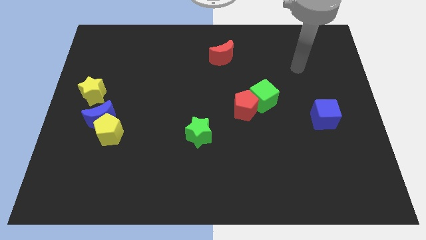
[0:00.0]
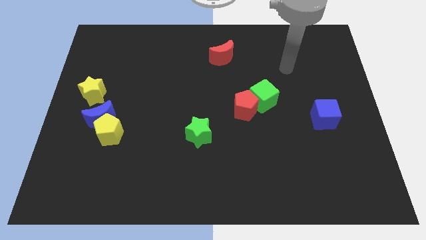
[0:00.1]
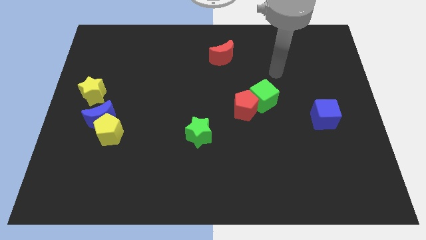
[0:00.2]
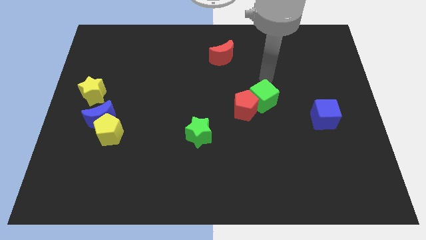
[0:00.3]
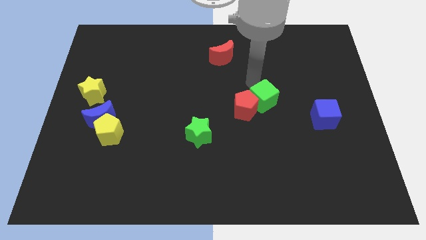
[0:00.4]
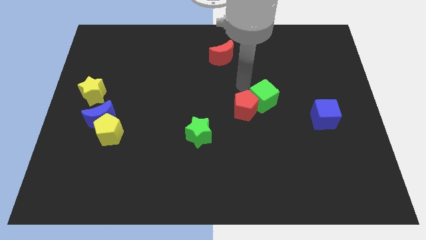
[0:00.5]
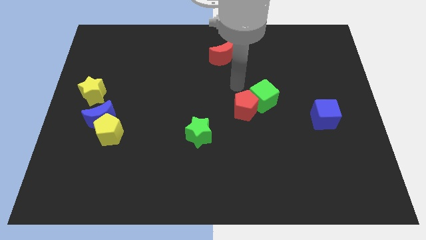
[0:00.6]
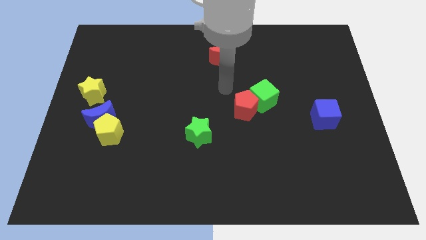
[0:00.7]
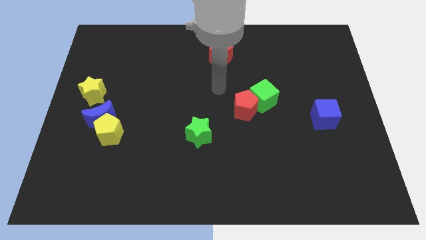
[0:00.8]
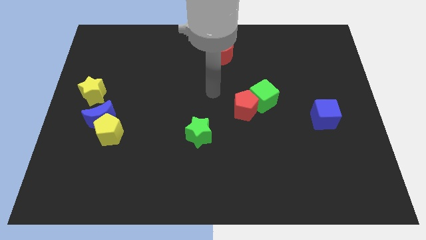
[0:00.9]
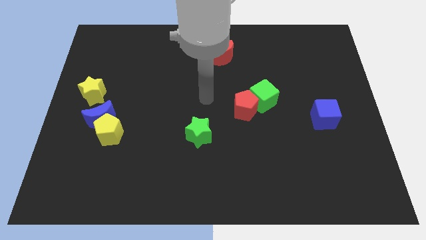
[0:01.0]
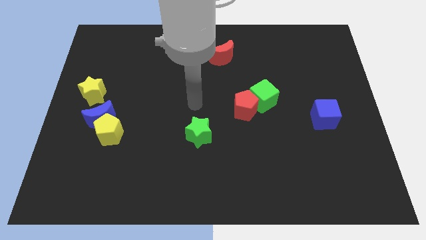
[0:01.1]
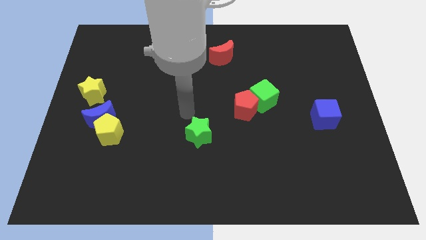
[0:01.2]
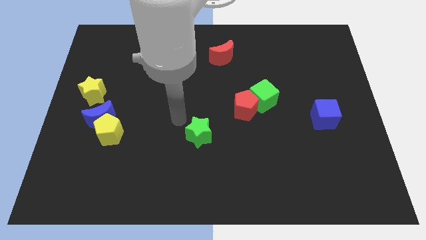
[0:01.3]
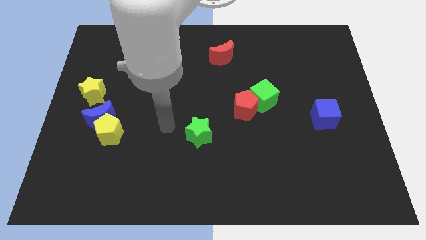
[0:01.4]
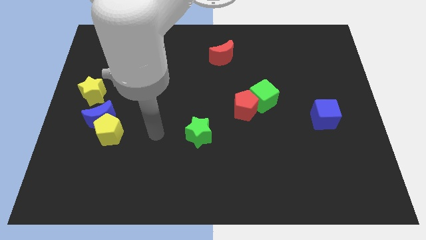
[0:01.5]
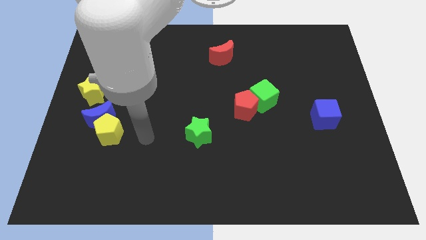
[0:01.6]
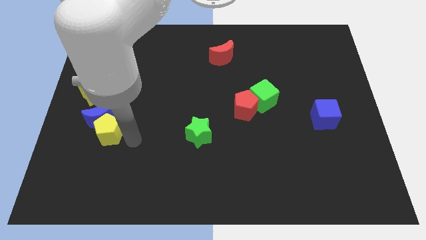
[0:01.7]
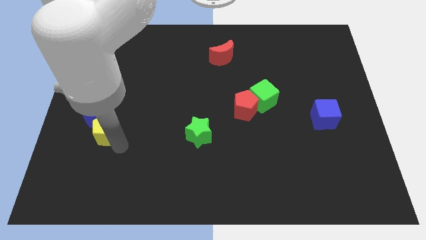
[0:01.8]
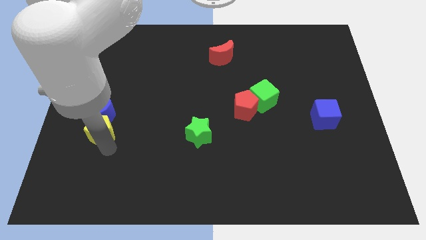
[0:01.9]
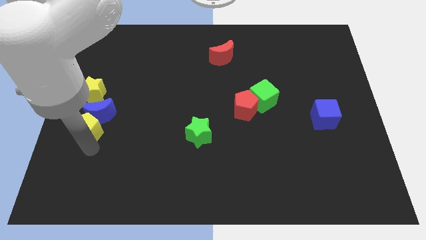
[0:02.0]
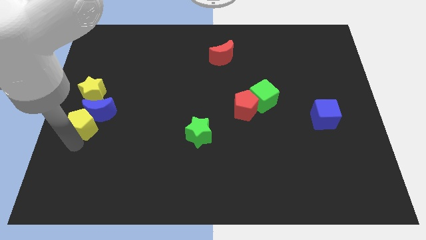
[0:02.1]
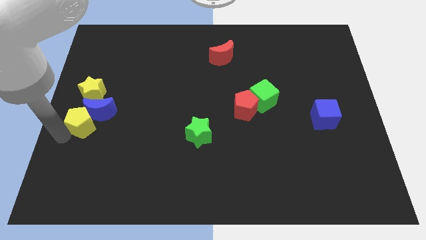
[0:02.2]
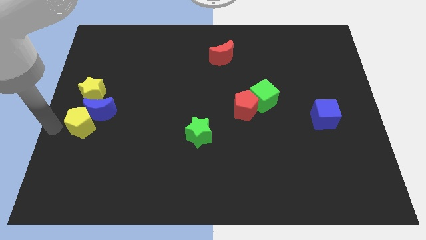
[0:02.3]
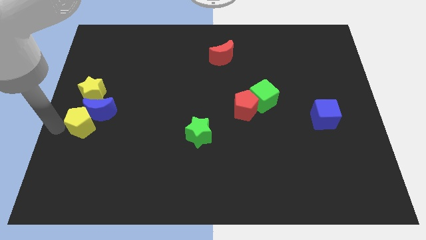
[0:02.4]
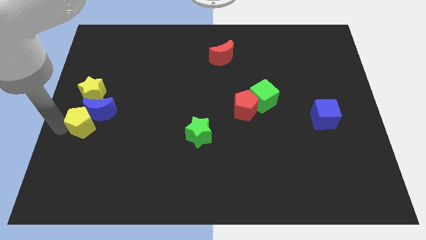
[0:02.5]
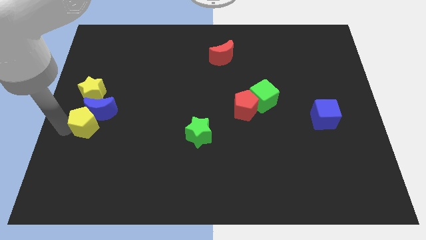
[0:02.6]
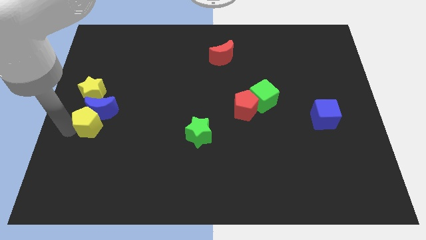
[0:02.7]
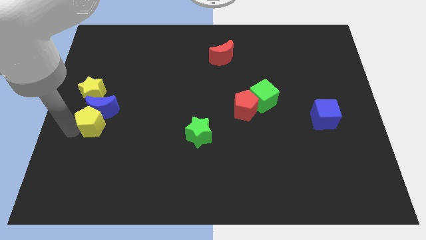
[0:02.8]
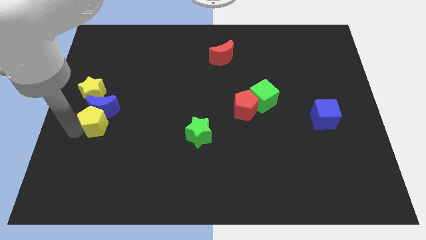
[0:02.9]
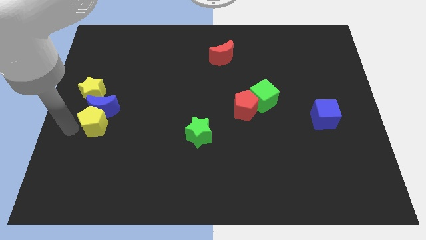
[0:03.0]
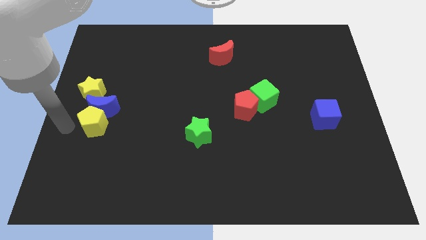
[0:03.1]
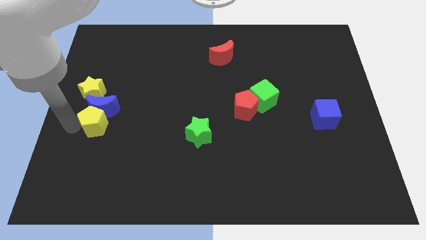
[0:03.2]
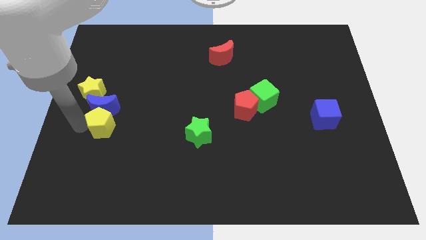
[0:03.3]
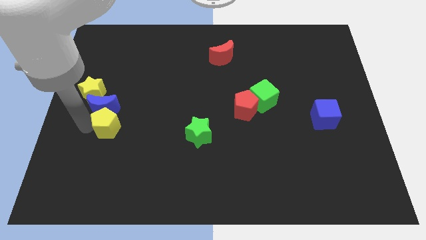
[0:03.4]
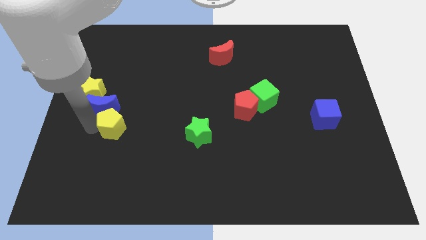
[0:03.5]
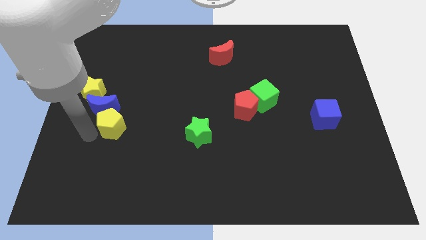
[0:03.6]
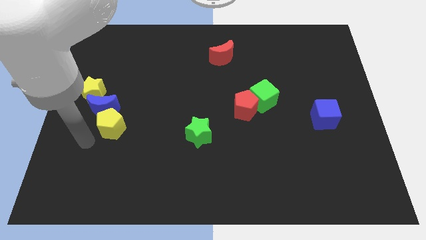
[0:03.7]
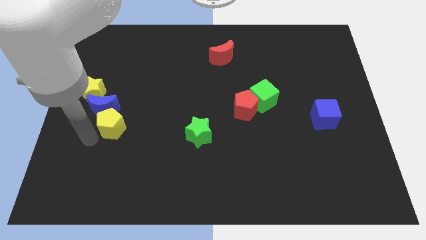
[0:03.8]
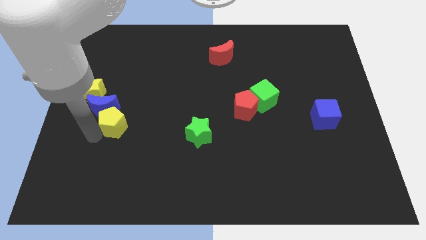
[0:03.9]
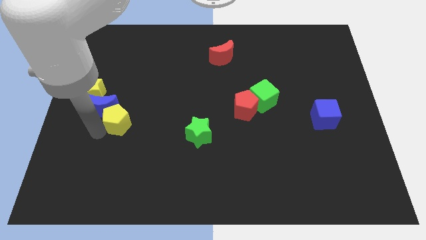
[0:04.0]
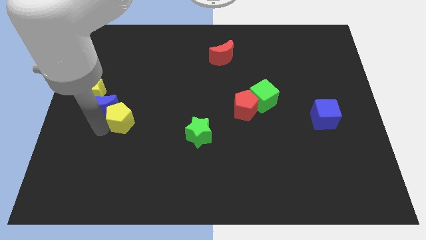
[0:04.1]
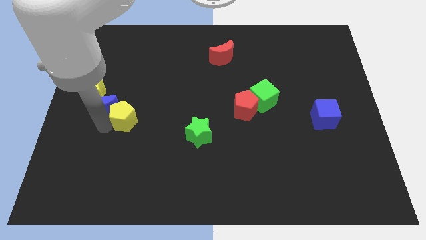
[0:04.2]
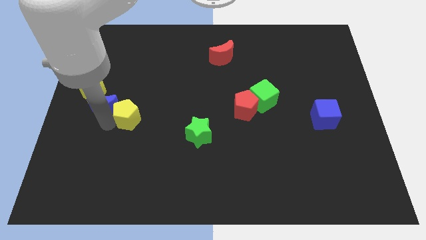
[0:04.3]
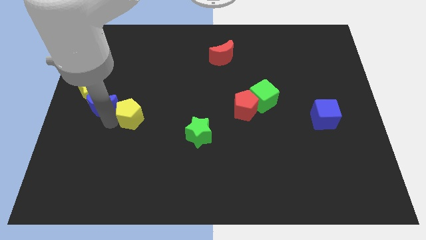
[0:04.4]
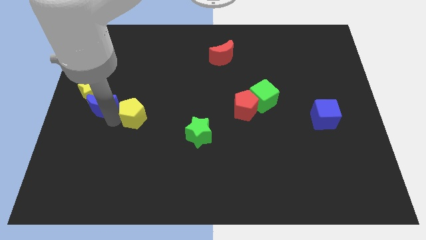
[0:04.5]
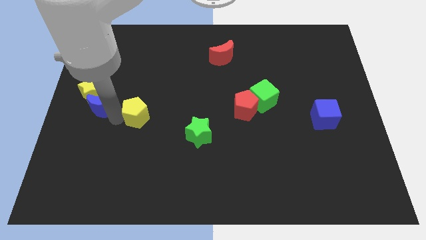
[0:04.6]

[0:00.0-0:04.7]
slightly move the yellow pentagon up and to the right

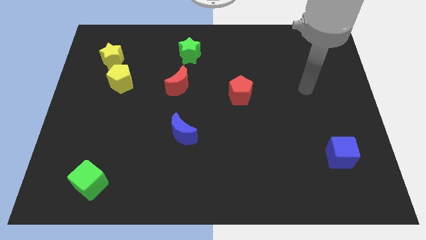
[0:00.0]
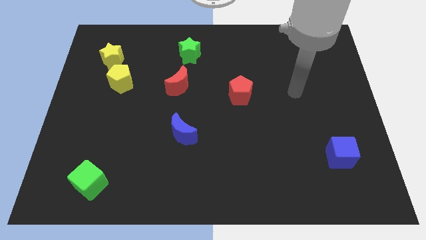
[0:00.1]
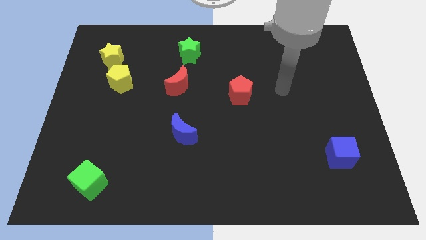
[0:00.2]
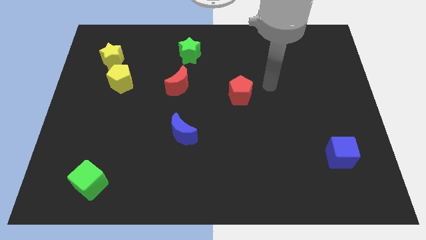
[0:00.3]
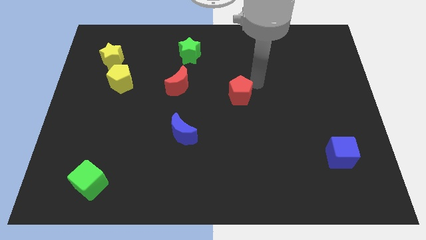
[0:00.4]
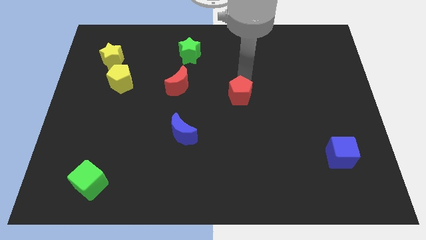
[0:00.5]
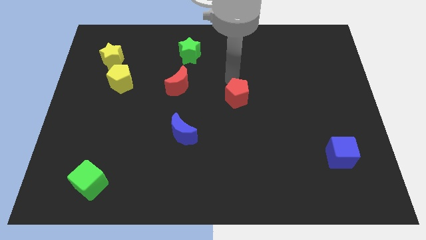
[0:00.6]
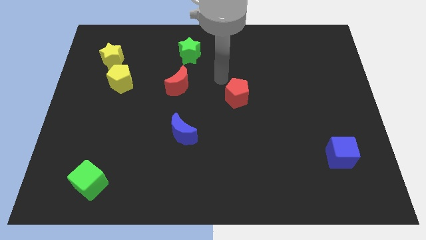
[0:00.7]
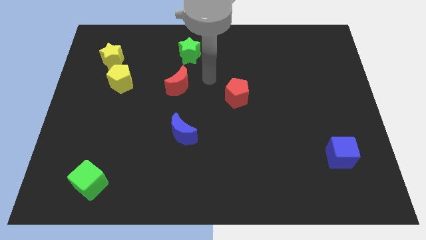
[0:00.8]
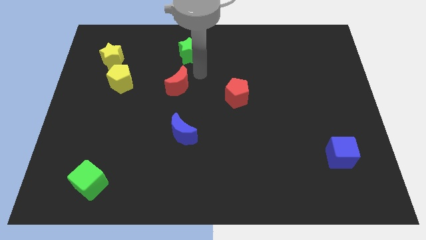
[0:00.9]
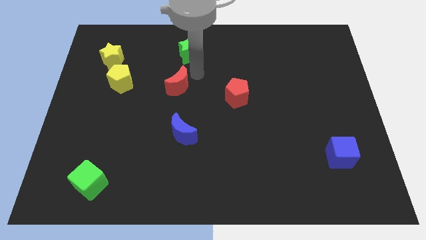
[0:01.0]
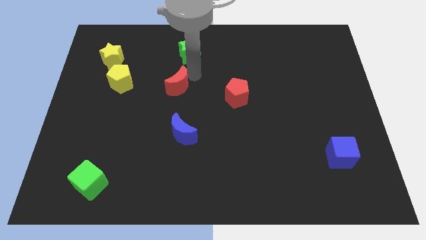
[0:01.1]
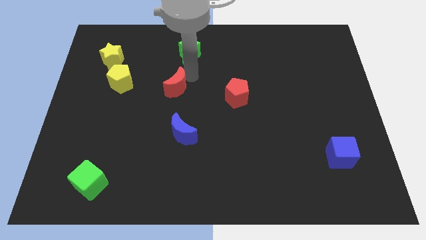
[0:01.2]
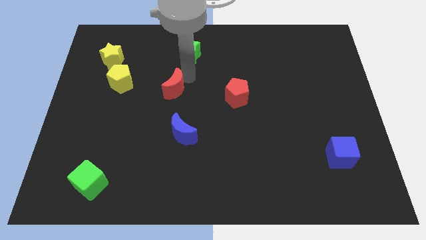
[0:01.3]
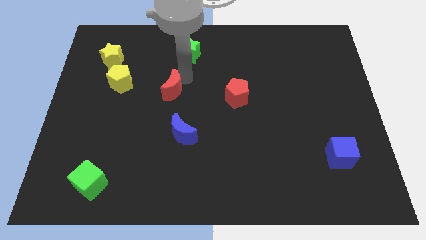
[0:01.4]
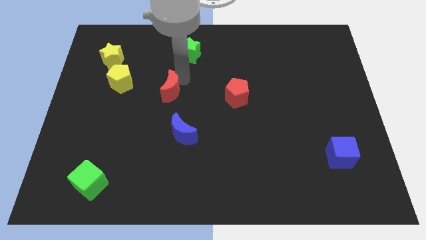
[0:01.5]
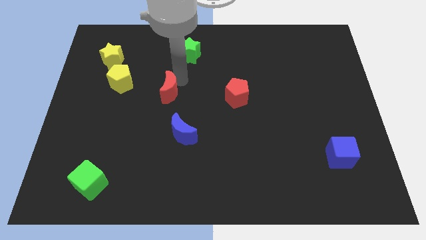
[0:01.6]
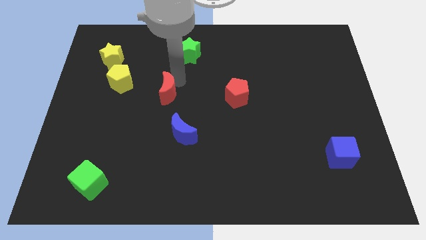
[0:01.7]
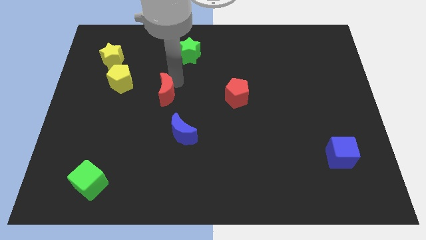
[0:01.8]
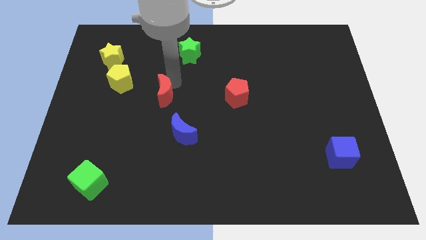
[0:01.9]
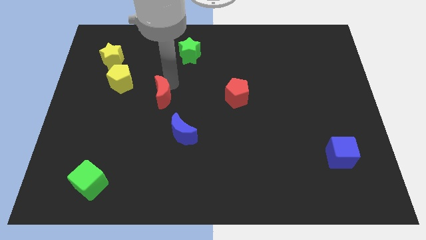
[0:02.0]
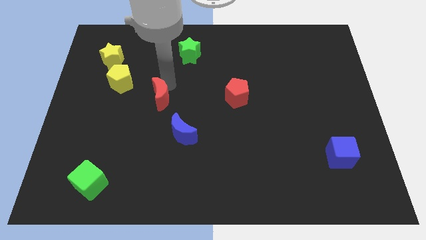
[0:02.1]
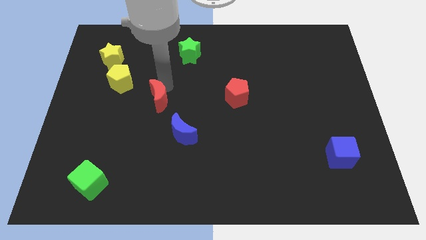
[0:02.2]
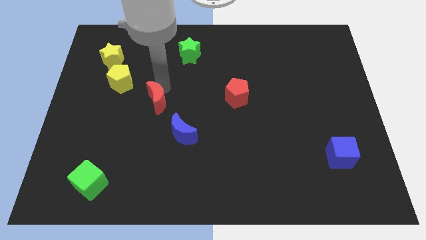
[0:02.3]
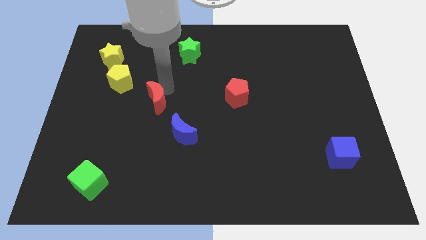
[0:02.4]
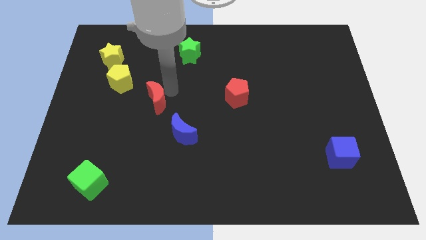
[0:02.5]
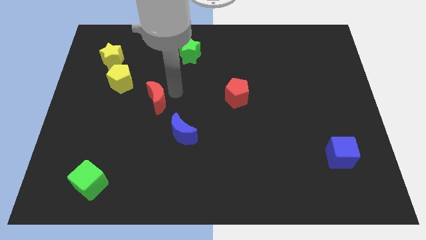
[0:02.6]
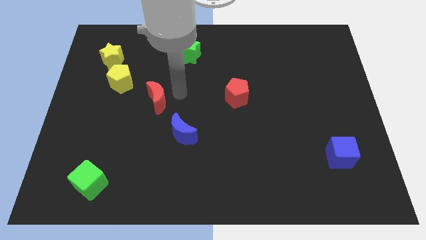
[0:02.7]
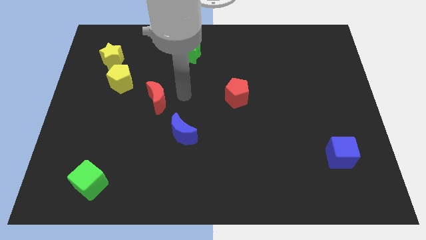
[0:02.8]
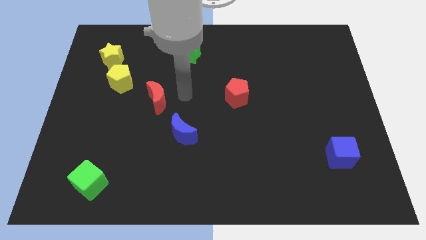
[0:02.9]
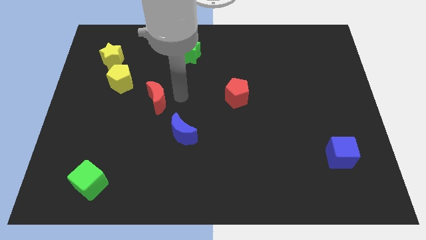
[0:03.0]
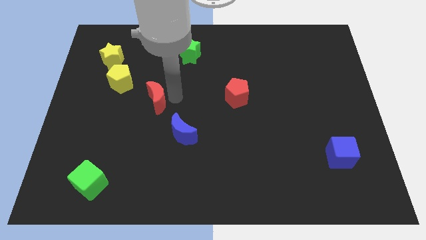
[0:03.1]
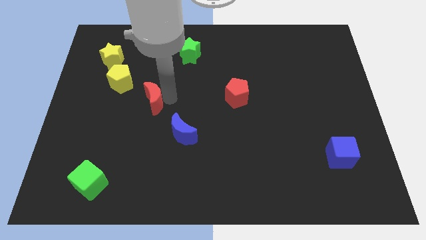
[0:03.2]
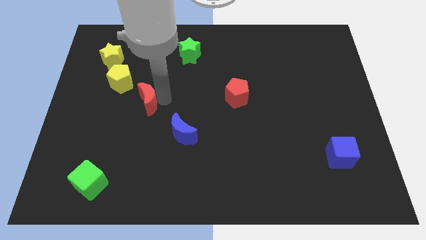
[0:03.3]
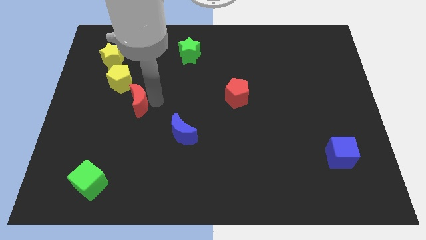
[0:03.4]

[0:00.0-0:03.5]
slide the red moon to the left a little
